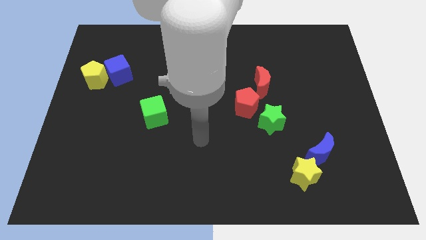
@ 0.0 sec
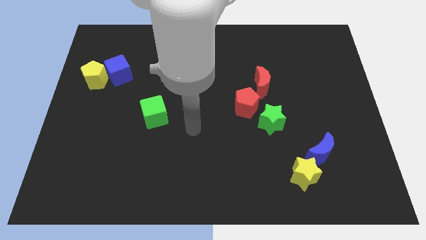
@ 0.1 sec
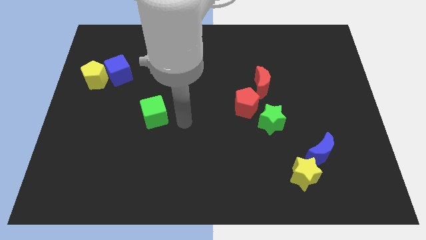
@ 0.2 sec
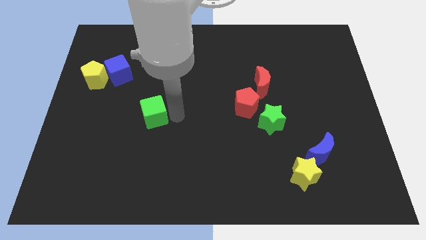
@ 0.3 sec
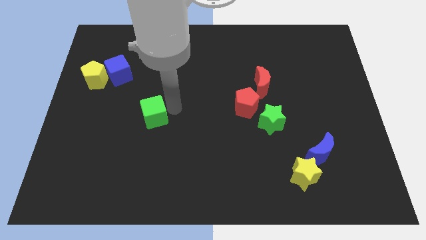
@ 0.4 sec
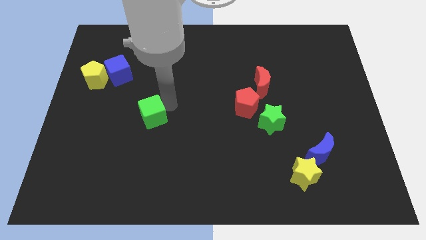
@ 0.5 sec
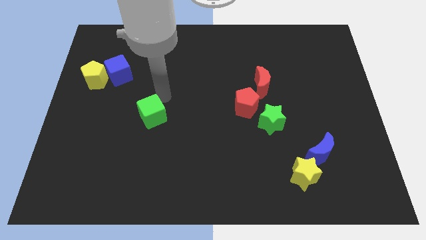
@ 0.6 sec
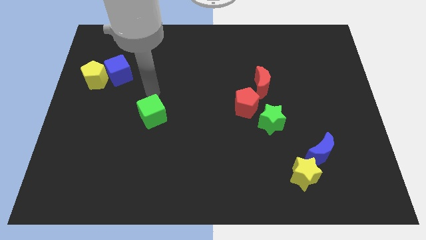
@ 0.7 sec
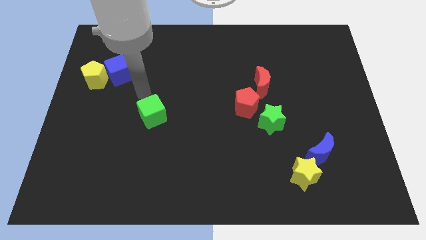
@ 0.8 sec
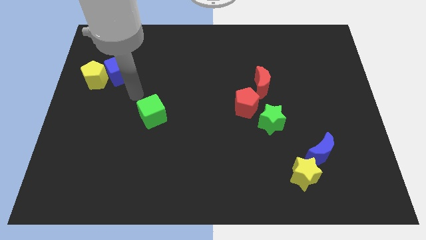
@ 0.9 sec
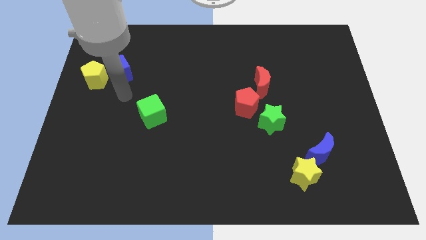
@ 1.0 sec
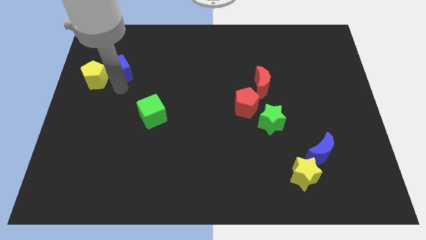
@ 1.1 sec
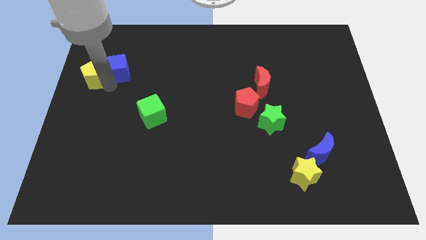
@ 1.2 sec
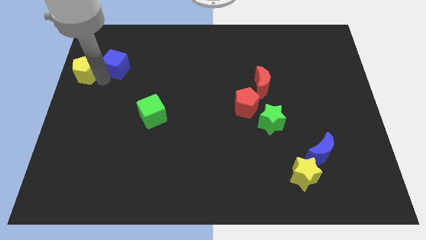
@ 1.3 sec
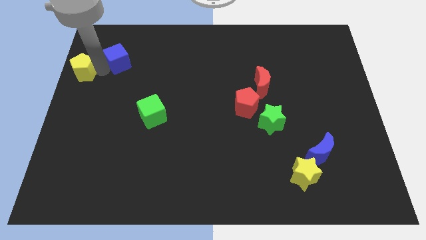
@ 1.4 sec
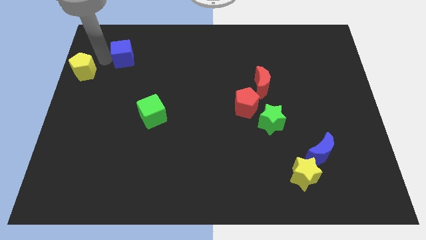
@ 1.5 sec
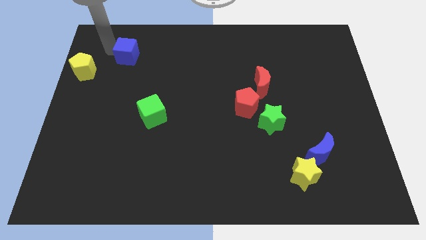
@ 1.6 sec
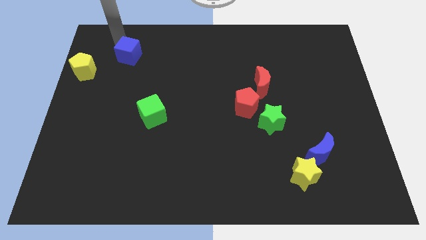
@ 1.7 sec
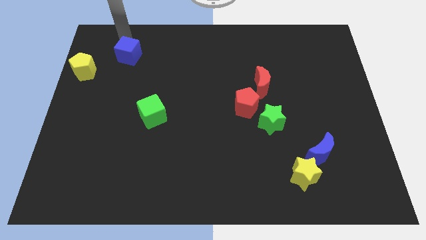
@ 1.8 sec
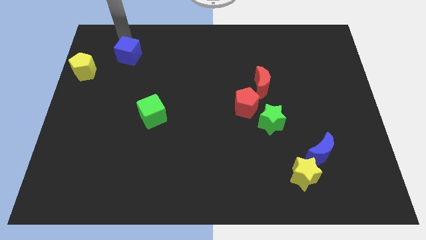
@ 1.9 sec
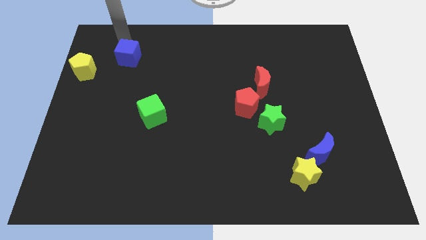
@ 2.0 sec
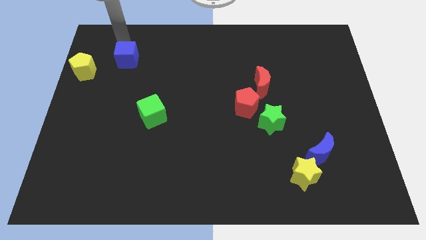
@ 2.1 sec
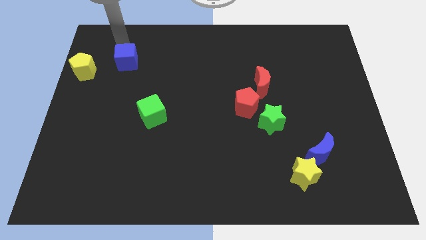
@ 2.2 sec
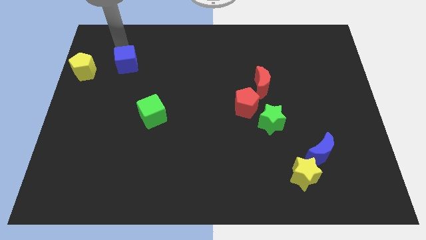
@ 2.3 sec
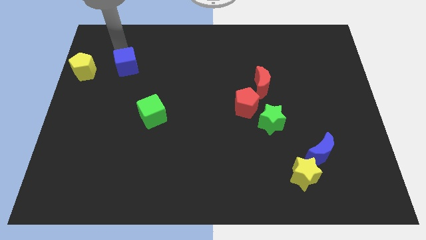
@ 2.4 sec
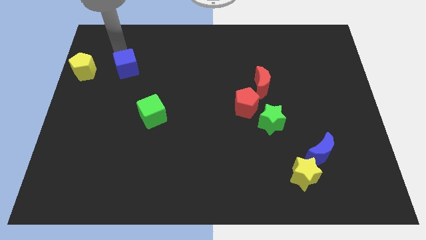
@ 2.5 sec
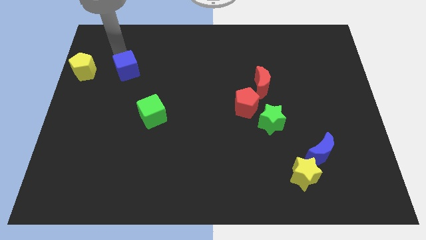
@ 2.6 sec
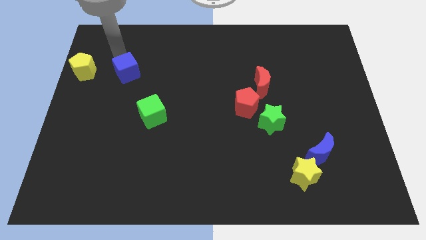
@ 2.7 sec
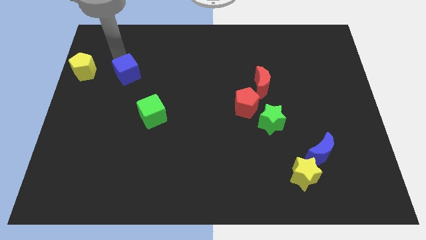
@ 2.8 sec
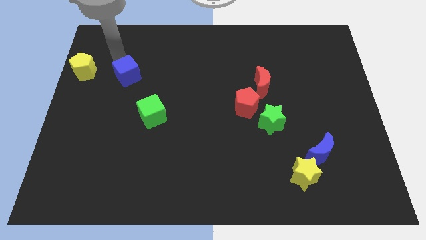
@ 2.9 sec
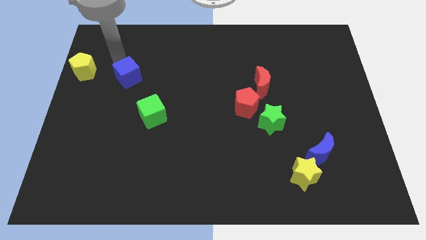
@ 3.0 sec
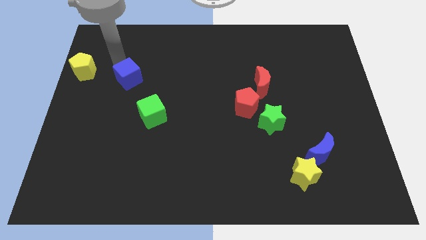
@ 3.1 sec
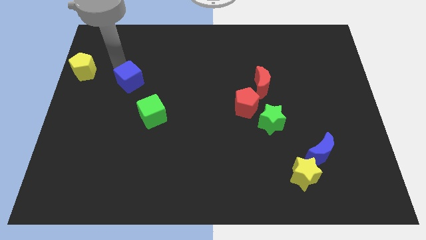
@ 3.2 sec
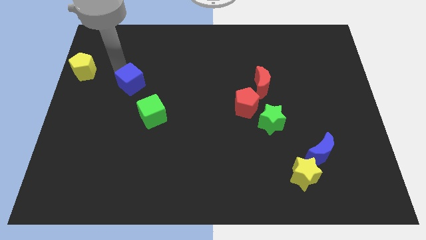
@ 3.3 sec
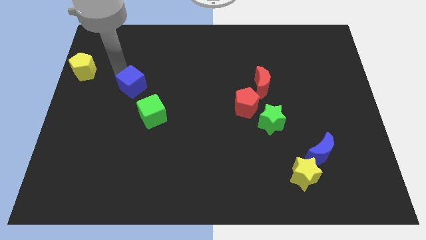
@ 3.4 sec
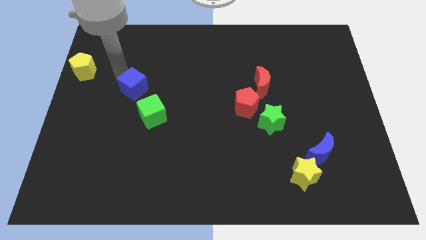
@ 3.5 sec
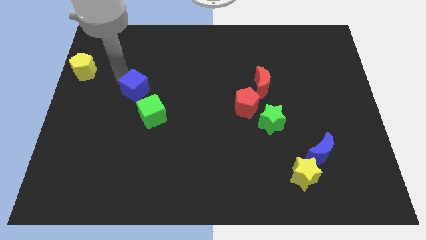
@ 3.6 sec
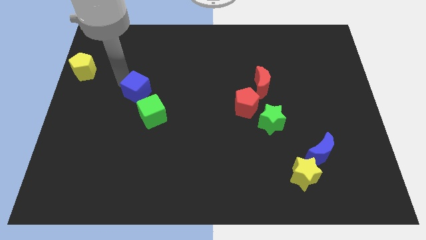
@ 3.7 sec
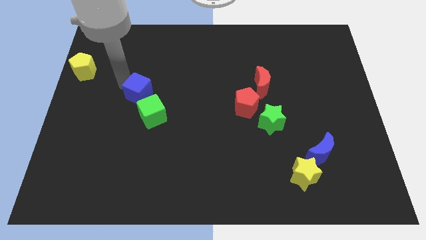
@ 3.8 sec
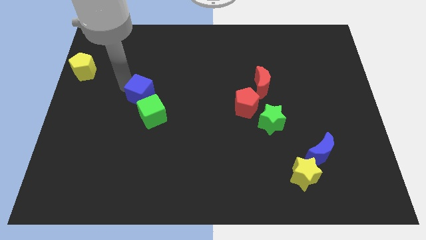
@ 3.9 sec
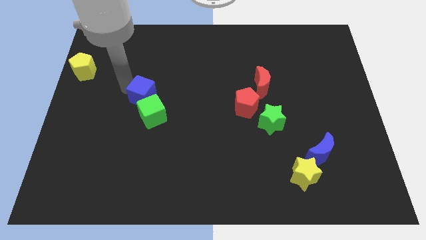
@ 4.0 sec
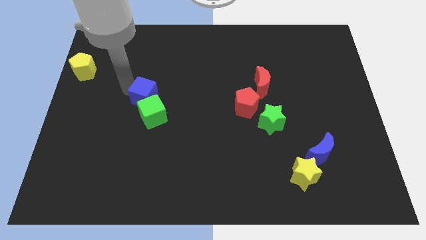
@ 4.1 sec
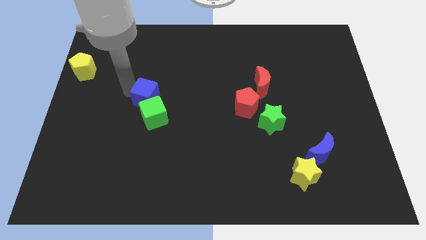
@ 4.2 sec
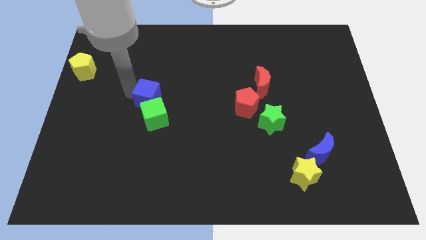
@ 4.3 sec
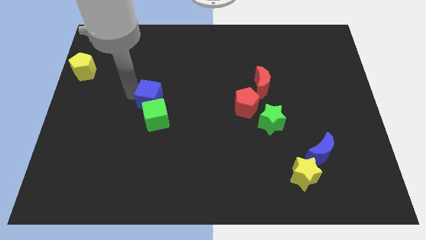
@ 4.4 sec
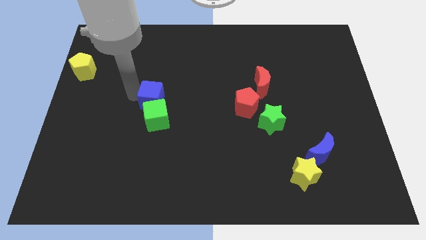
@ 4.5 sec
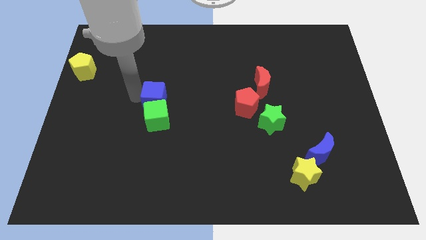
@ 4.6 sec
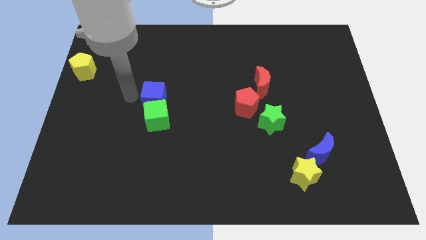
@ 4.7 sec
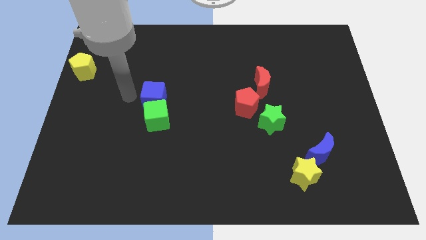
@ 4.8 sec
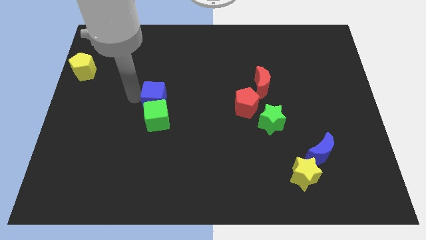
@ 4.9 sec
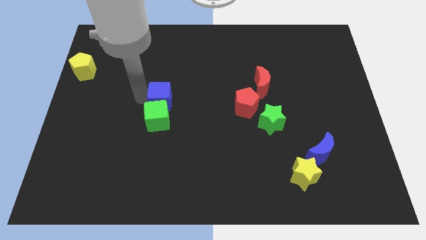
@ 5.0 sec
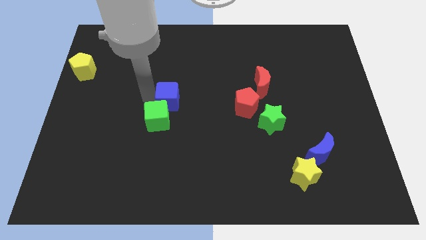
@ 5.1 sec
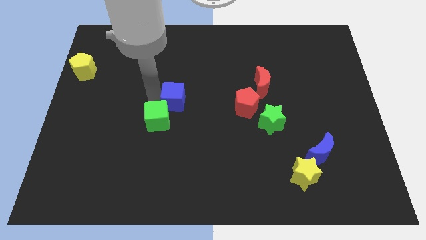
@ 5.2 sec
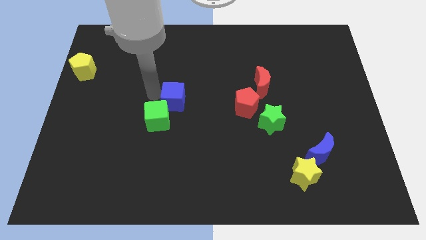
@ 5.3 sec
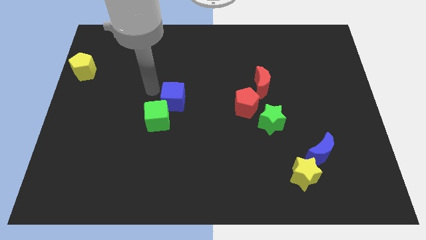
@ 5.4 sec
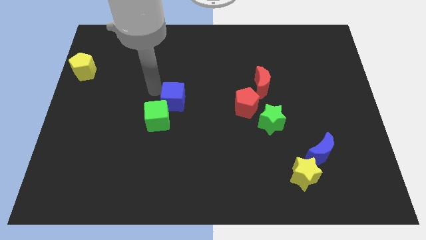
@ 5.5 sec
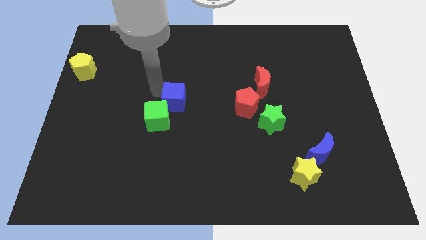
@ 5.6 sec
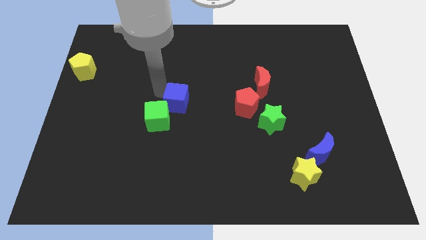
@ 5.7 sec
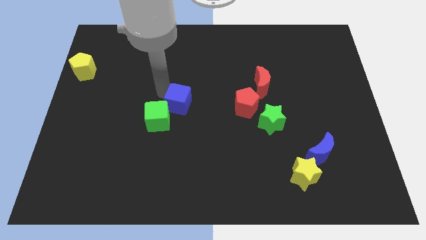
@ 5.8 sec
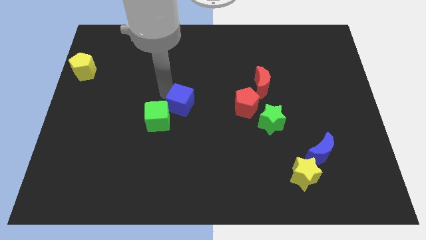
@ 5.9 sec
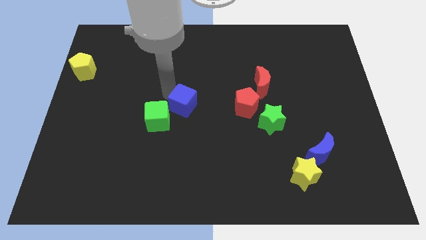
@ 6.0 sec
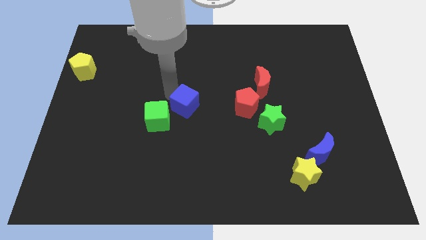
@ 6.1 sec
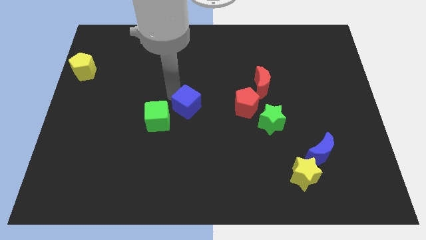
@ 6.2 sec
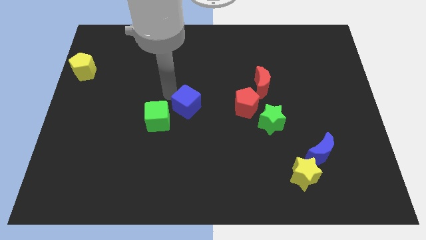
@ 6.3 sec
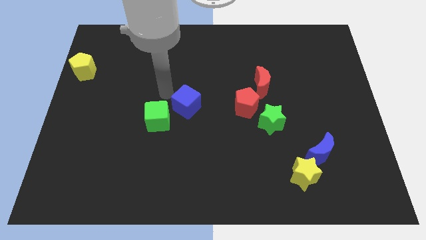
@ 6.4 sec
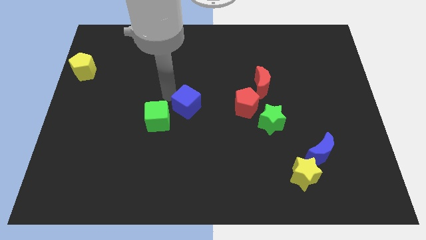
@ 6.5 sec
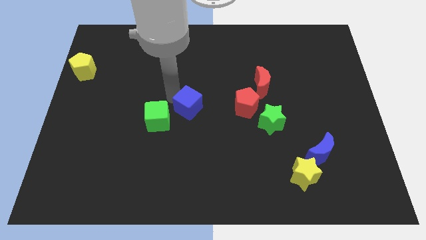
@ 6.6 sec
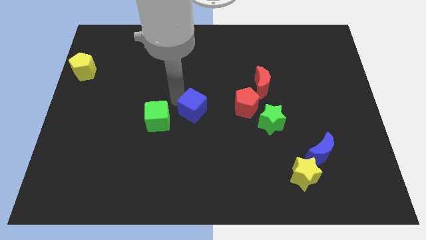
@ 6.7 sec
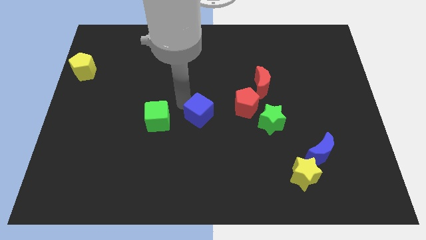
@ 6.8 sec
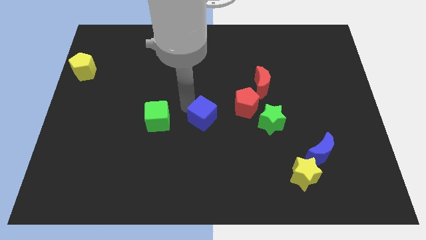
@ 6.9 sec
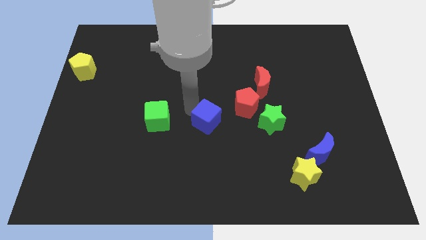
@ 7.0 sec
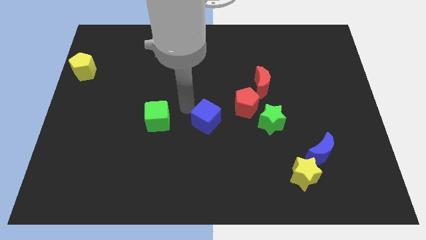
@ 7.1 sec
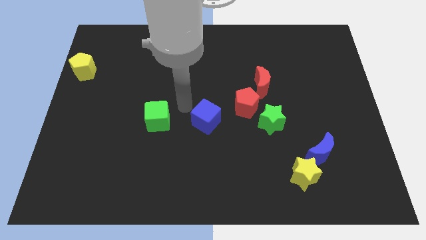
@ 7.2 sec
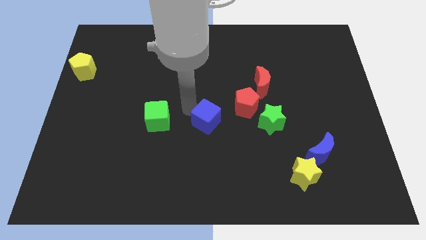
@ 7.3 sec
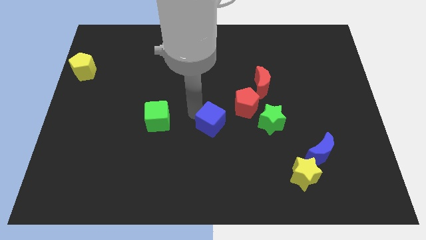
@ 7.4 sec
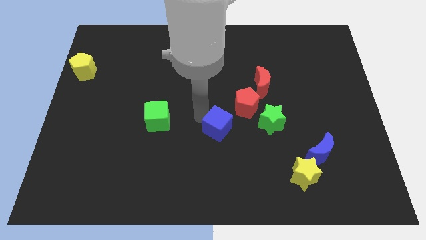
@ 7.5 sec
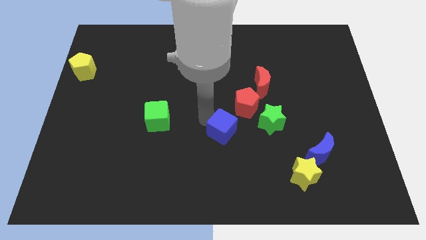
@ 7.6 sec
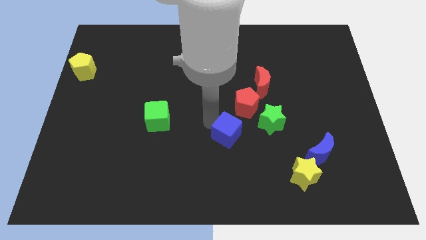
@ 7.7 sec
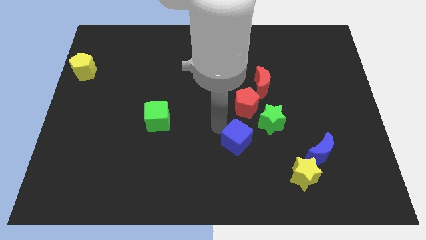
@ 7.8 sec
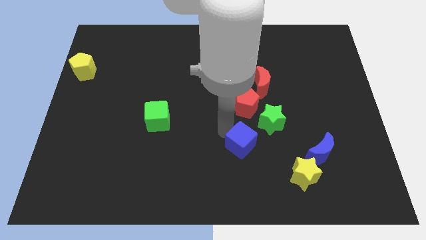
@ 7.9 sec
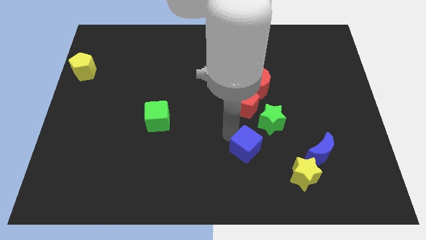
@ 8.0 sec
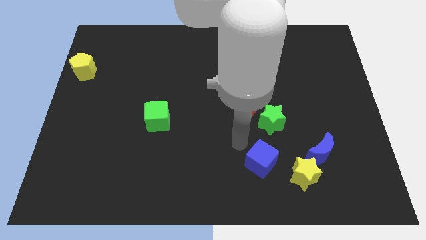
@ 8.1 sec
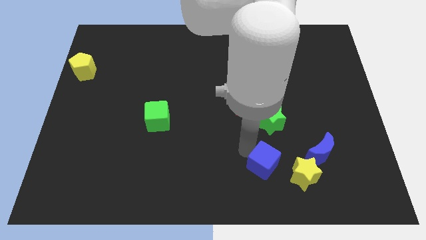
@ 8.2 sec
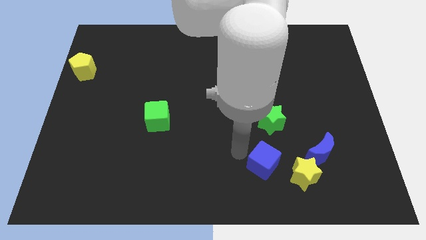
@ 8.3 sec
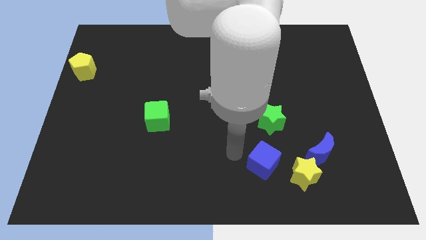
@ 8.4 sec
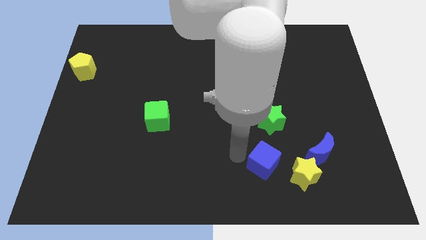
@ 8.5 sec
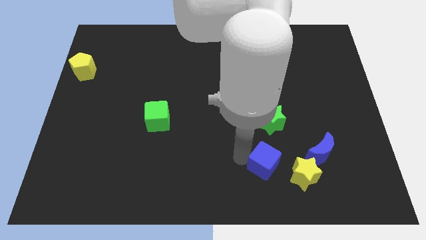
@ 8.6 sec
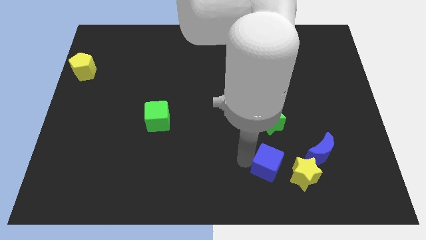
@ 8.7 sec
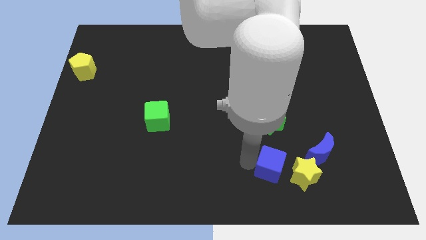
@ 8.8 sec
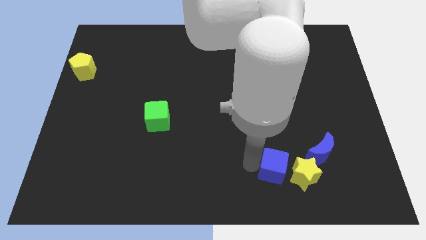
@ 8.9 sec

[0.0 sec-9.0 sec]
slide the blue cube close to the yellow star
